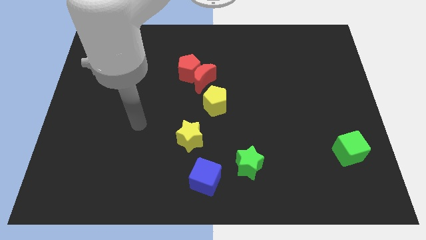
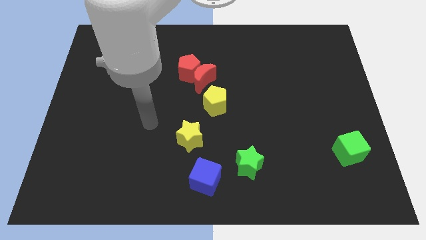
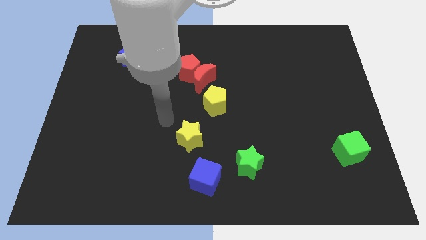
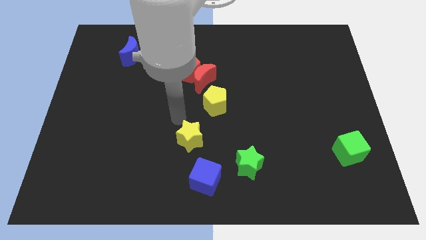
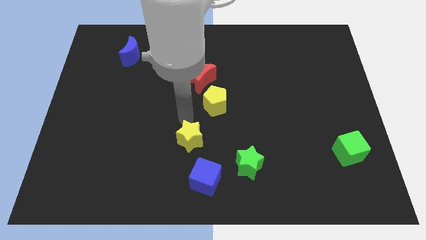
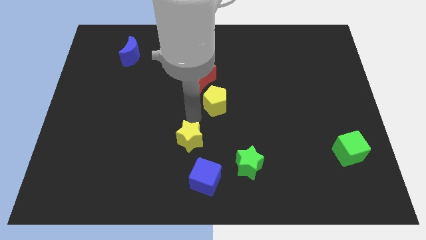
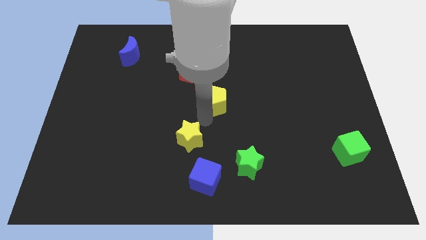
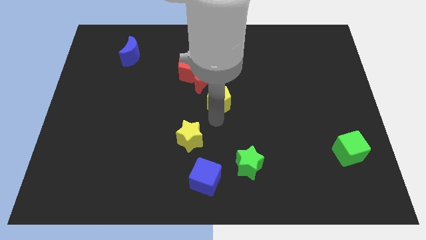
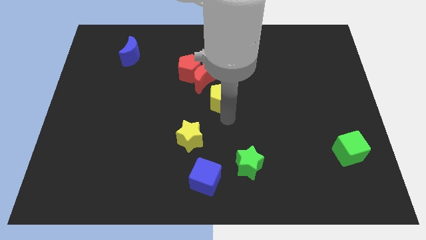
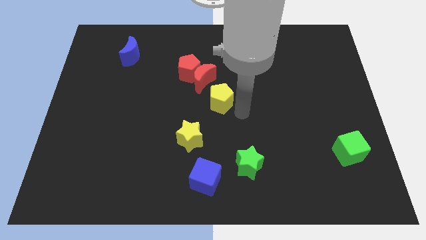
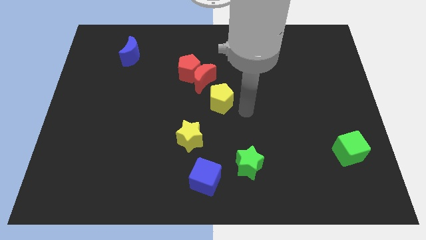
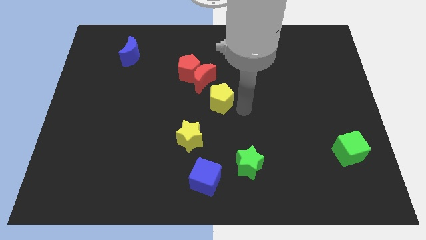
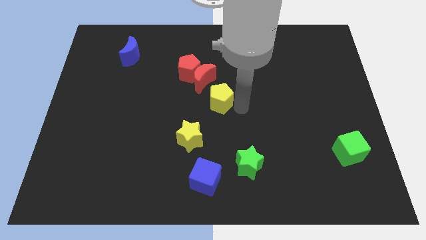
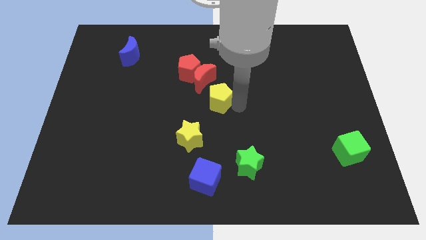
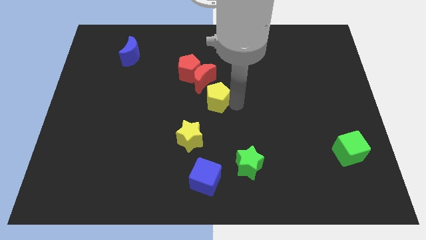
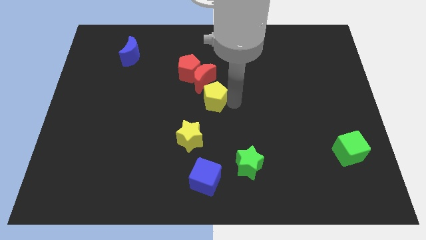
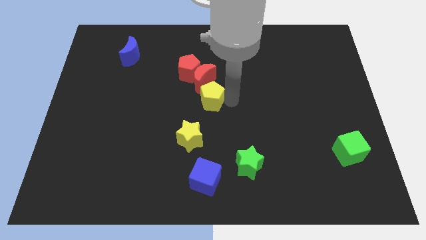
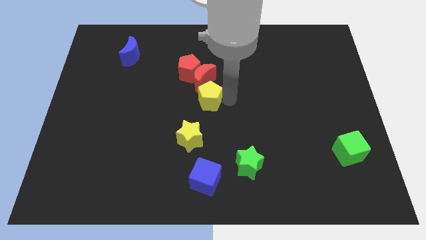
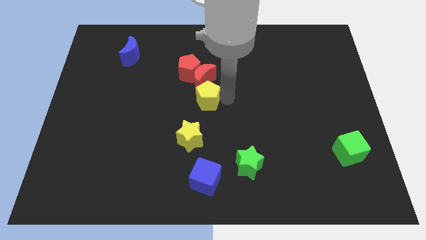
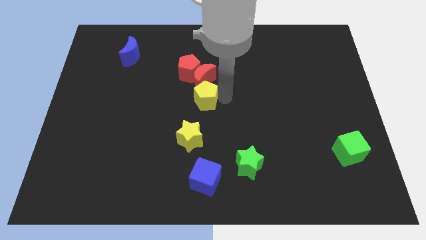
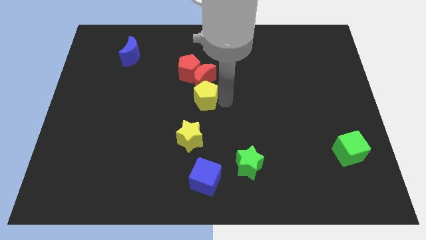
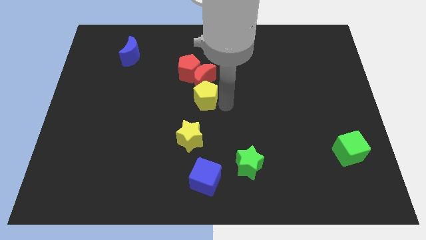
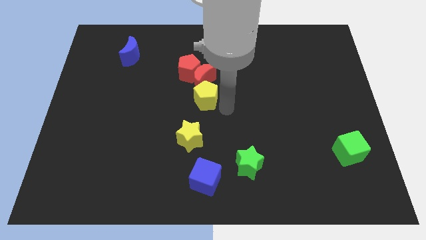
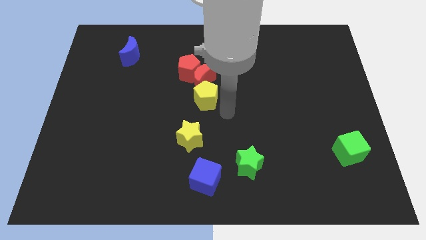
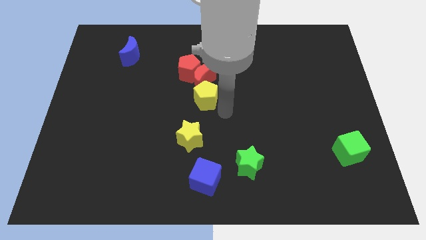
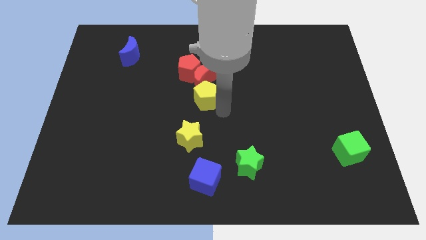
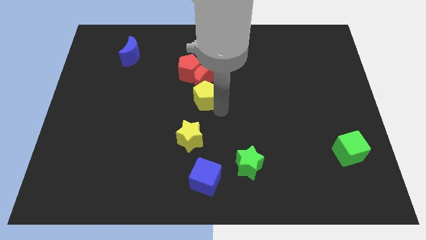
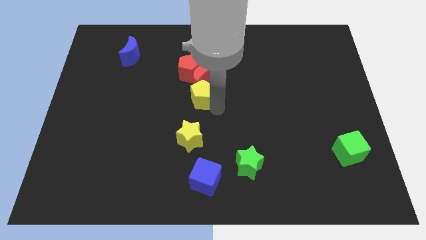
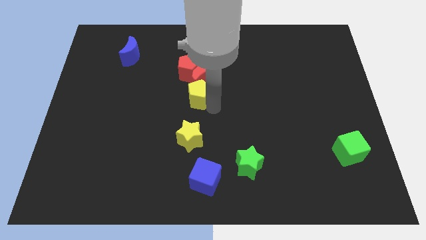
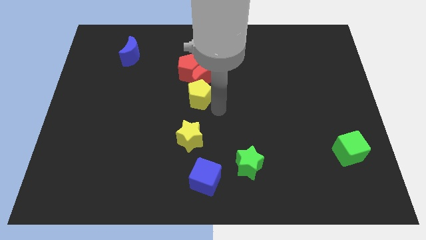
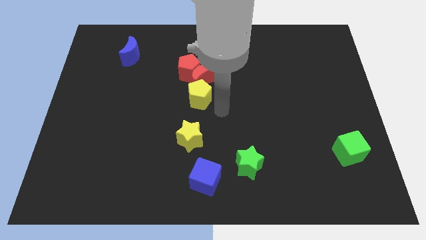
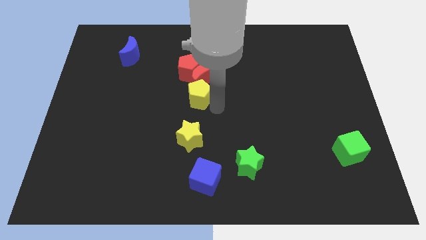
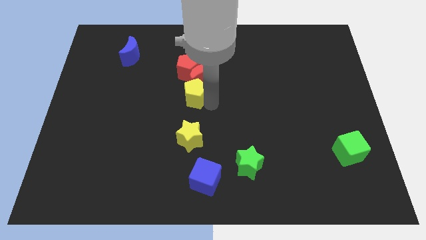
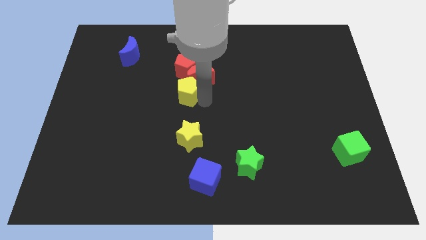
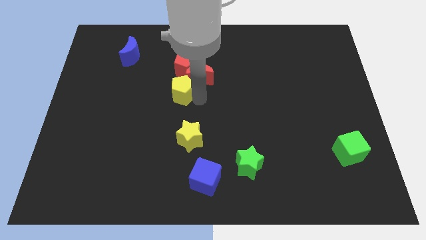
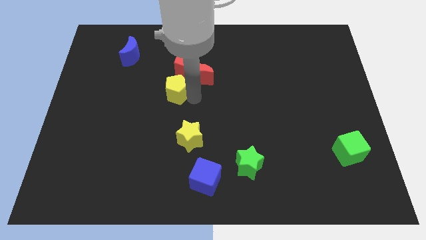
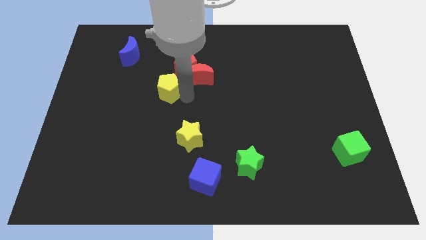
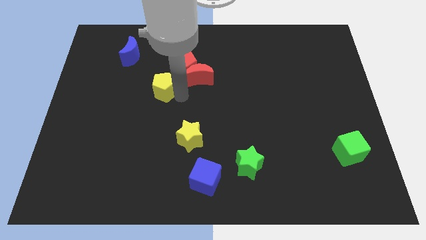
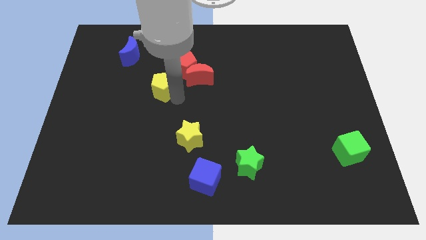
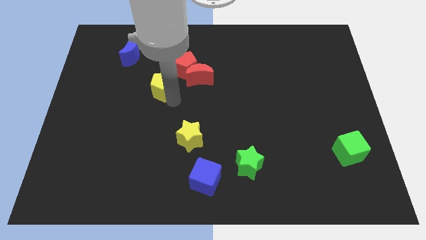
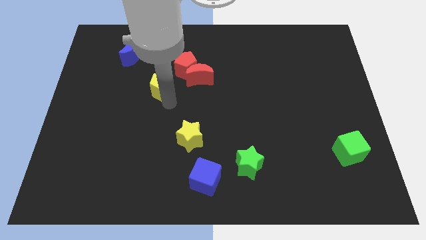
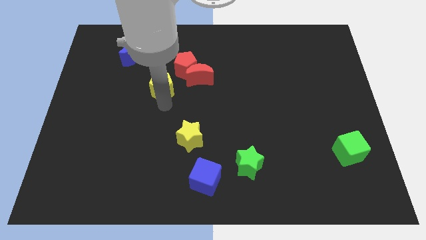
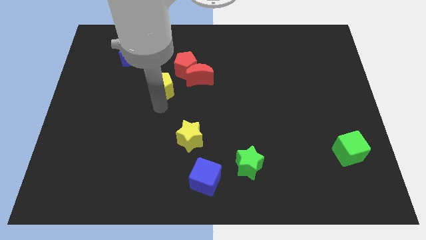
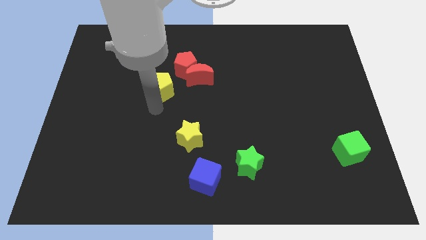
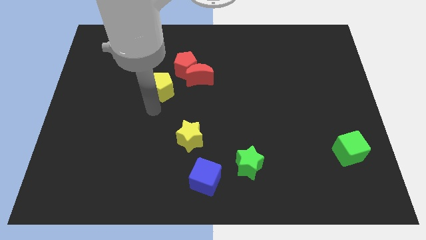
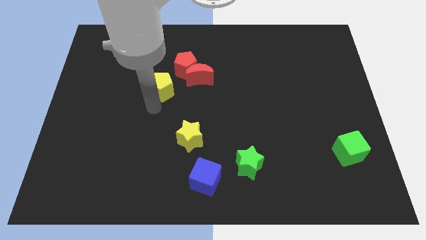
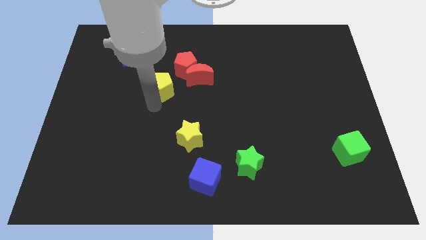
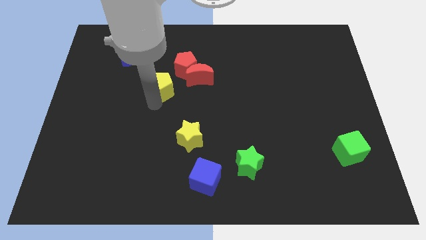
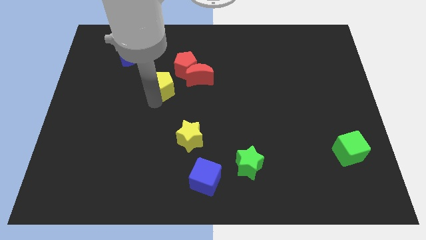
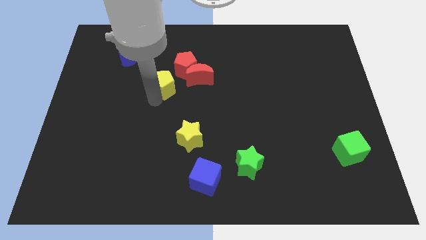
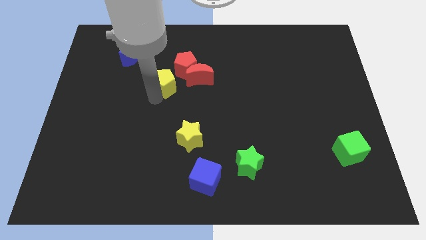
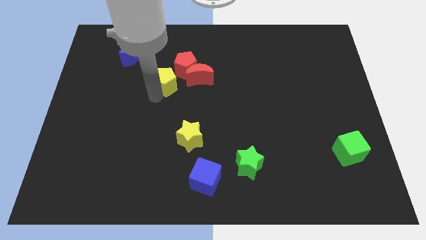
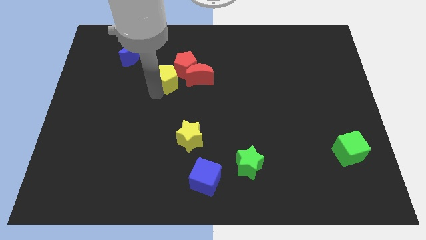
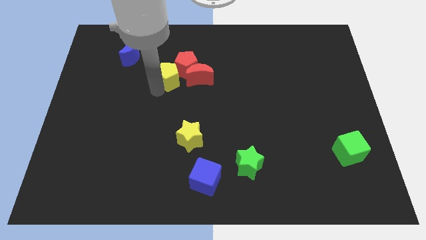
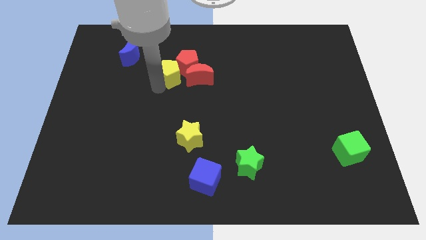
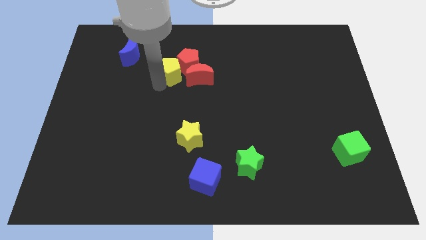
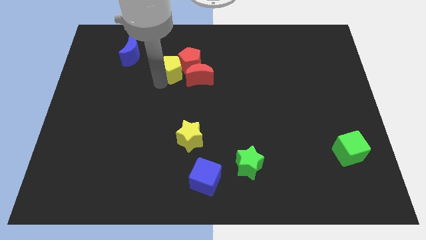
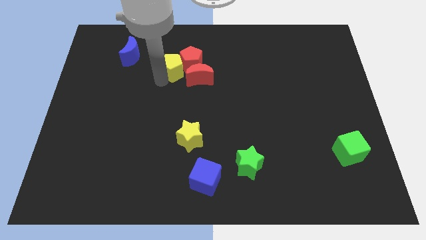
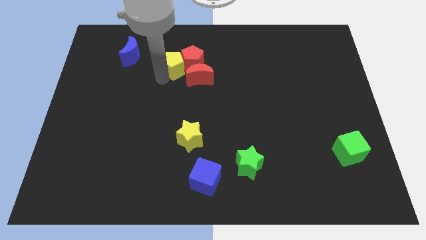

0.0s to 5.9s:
move the yellow pentagon just right of the blue moon

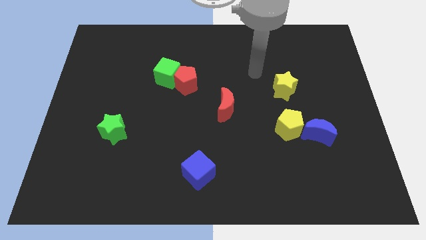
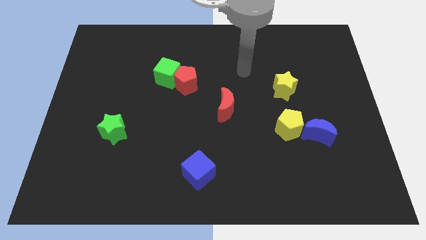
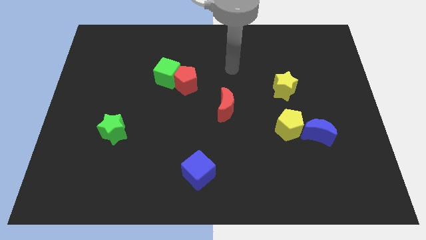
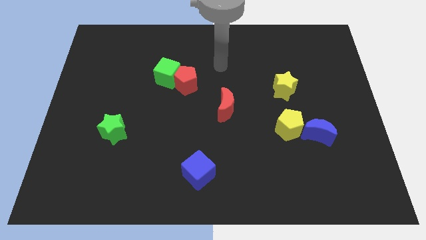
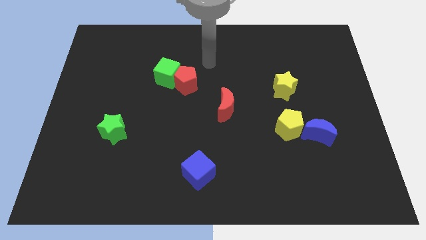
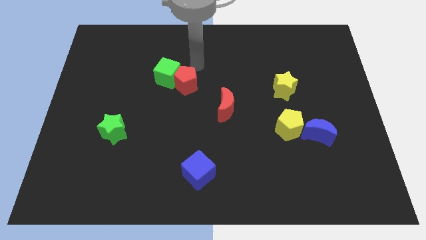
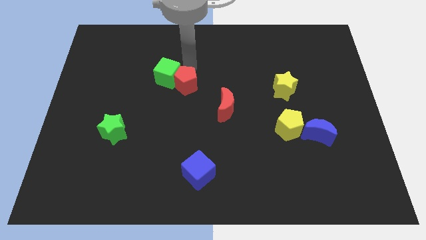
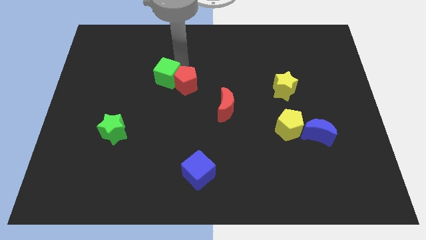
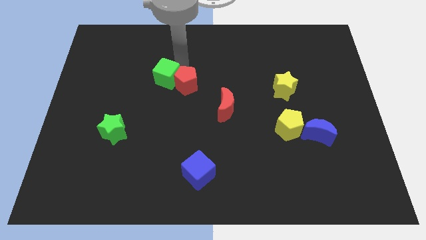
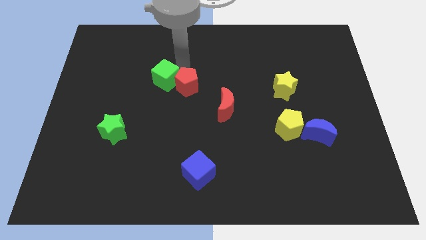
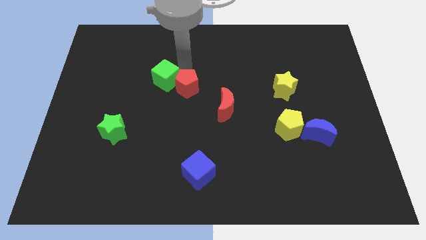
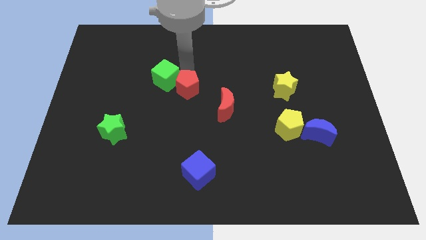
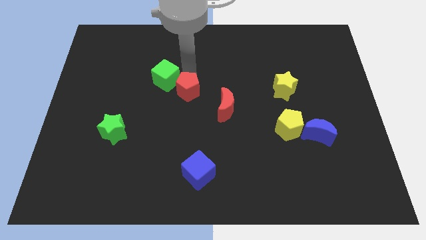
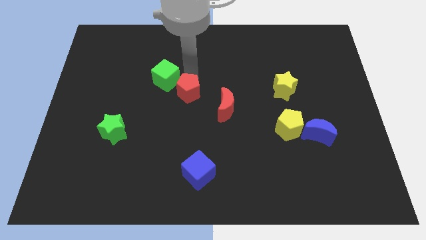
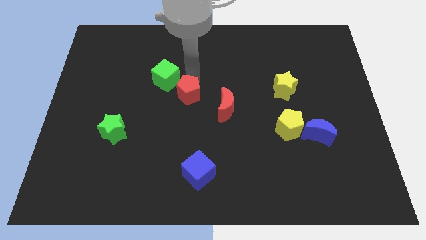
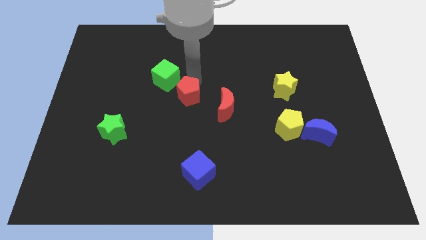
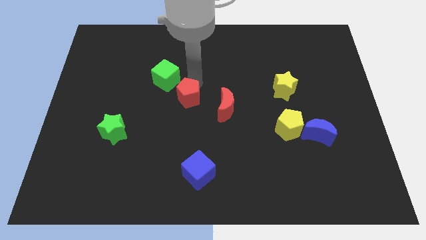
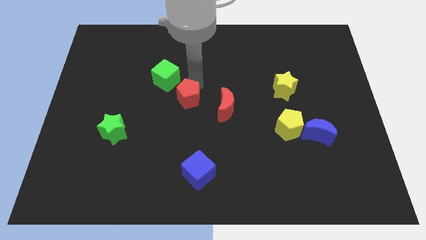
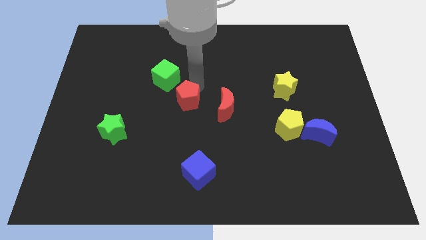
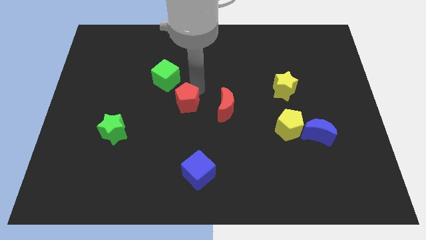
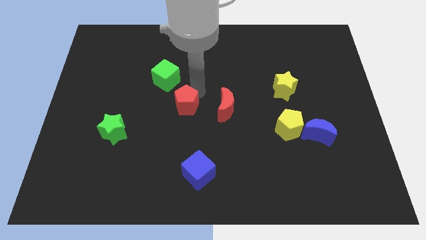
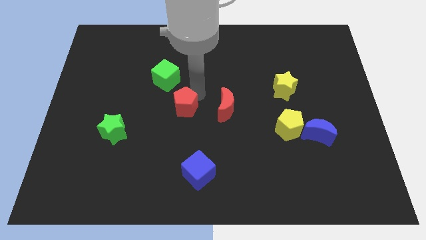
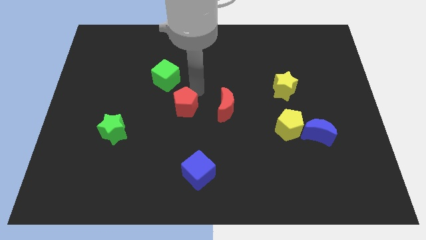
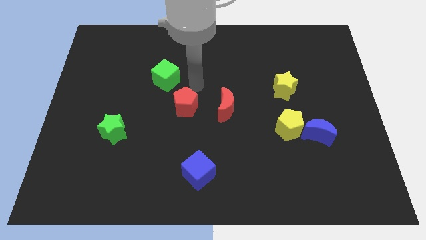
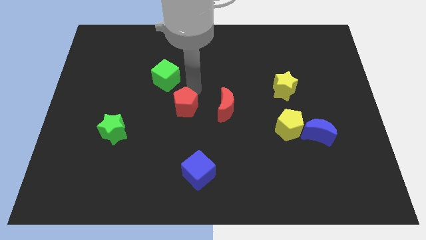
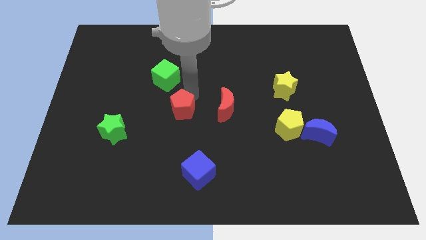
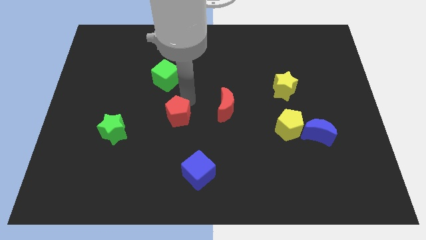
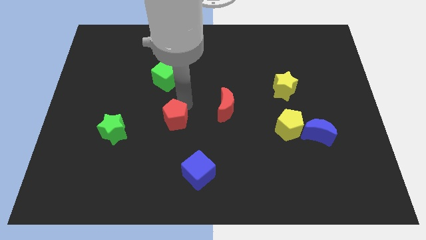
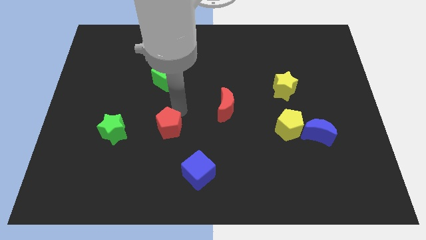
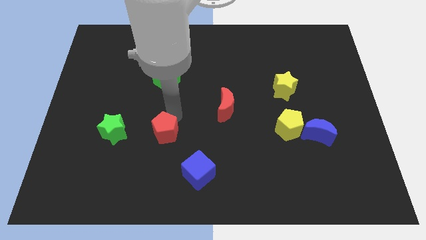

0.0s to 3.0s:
put the red pentagon to the top left side of the blue cube
